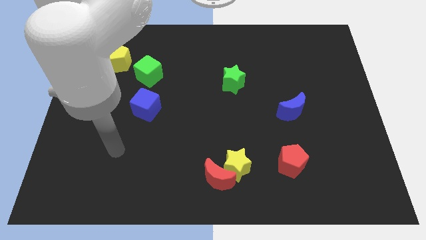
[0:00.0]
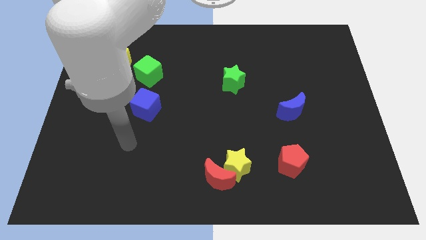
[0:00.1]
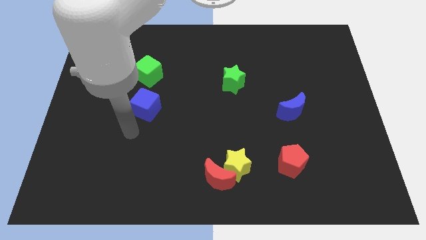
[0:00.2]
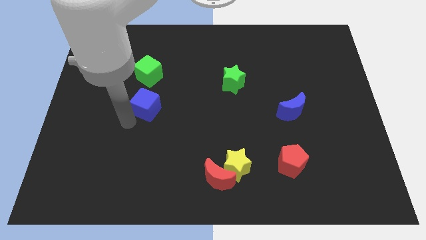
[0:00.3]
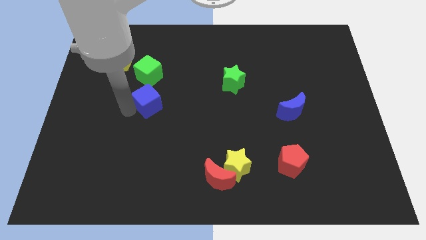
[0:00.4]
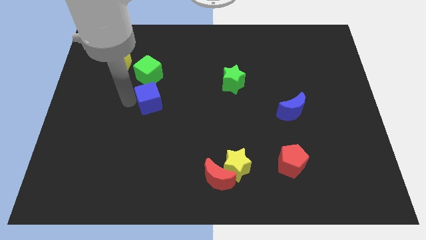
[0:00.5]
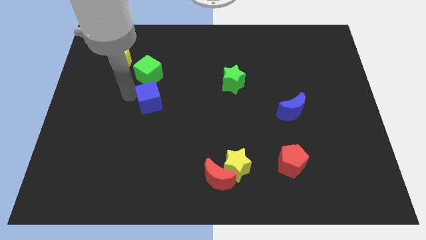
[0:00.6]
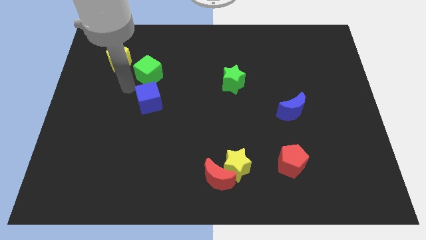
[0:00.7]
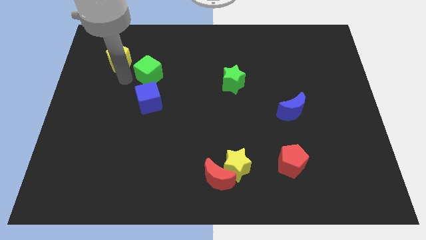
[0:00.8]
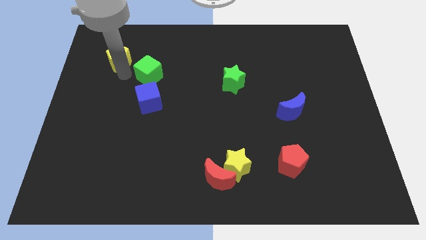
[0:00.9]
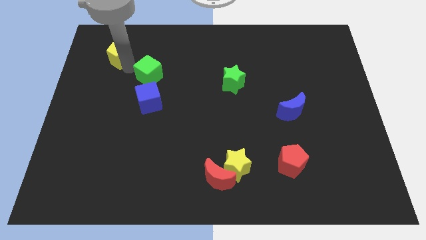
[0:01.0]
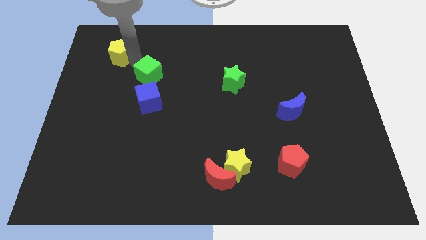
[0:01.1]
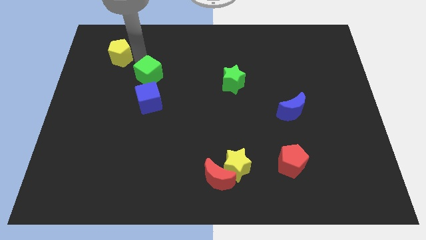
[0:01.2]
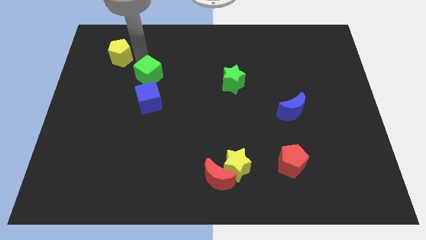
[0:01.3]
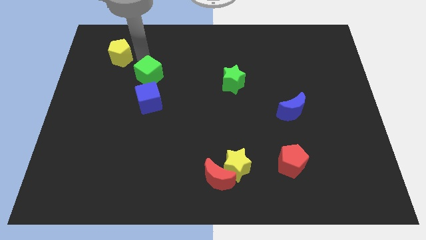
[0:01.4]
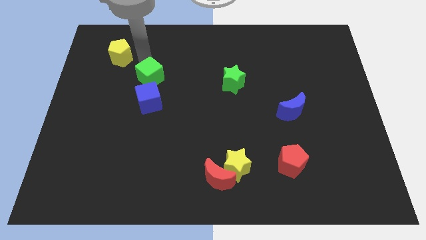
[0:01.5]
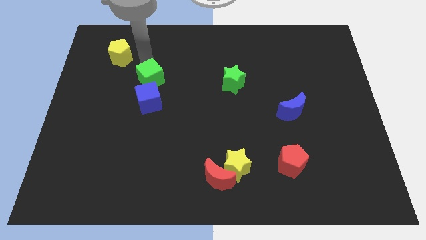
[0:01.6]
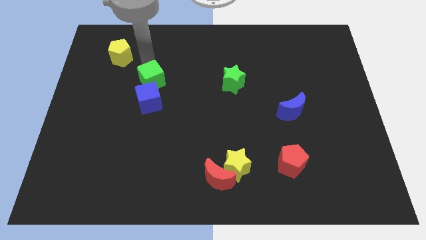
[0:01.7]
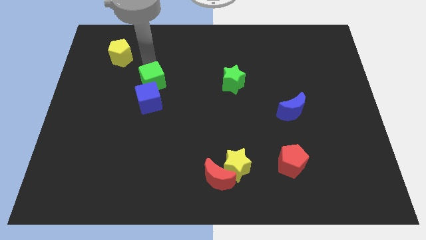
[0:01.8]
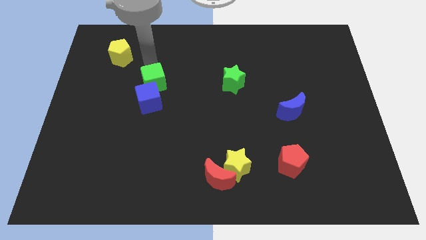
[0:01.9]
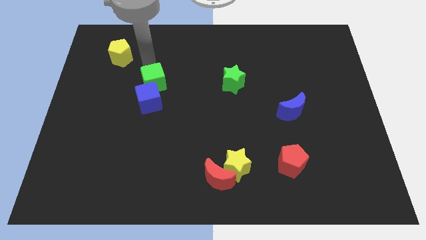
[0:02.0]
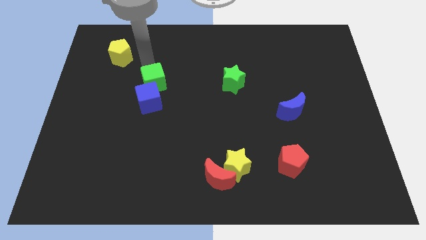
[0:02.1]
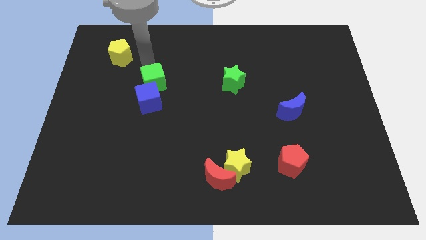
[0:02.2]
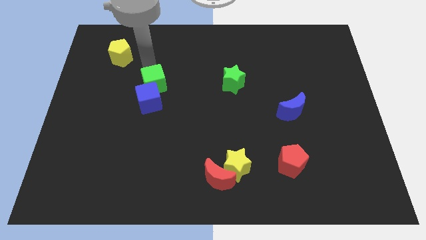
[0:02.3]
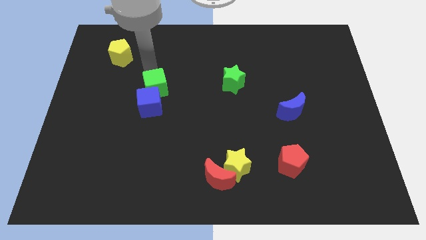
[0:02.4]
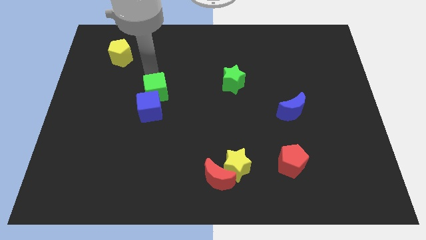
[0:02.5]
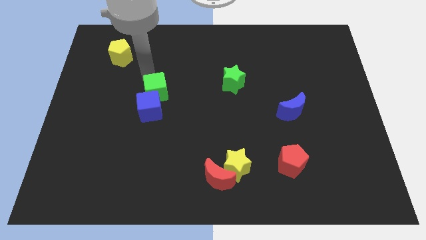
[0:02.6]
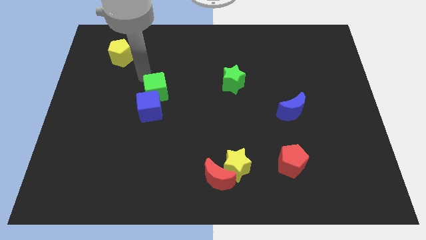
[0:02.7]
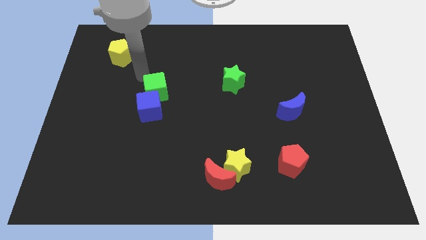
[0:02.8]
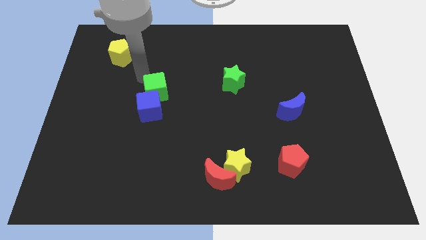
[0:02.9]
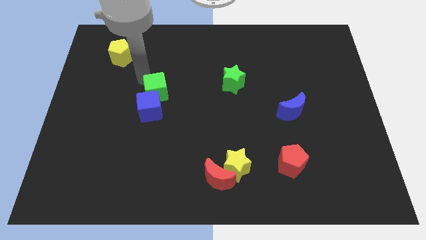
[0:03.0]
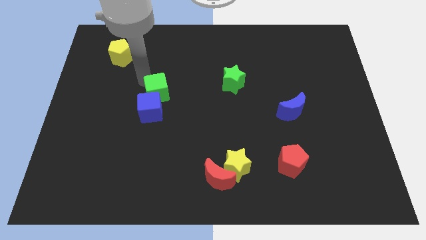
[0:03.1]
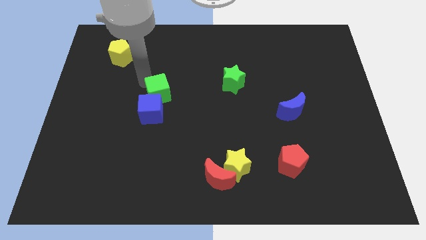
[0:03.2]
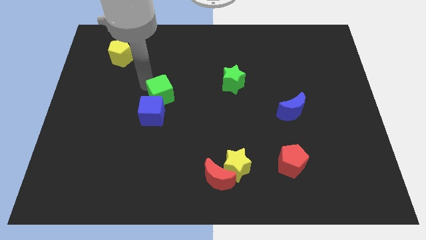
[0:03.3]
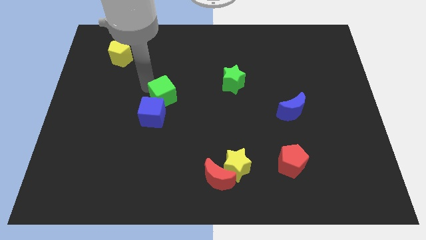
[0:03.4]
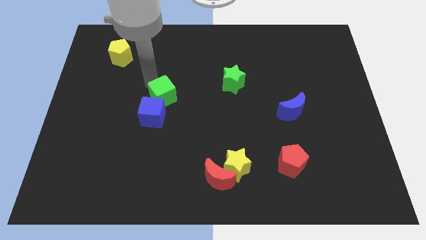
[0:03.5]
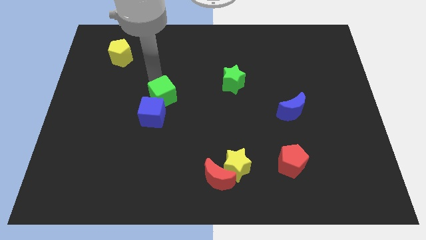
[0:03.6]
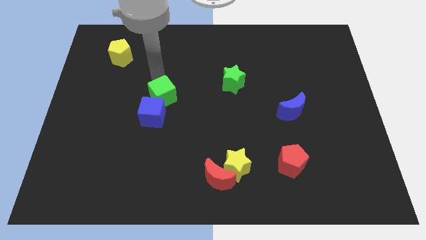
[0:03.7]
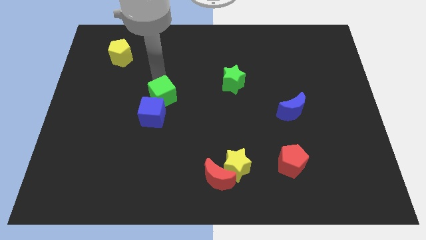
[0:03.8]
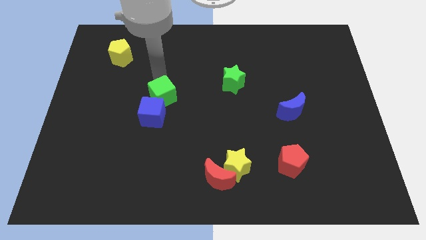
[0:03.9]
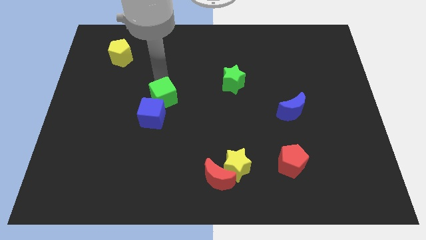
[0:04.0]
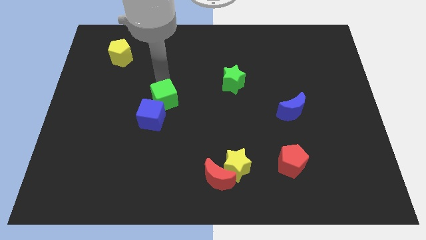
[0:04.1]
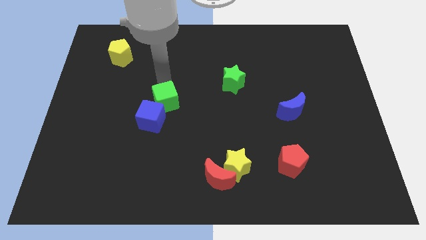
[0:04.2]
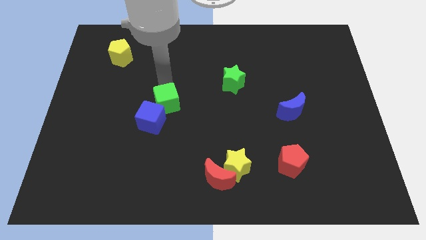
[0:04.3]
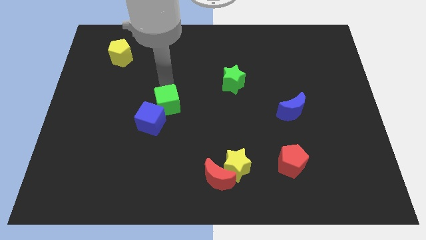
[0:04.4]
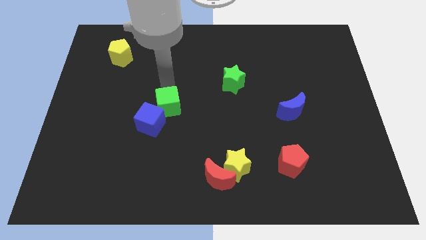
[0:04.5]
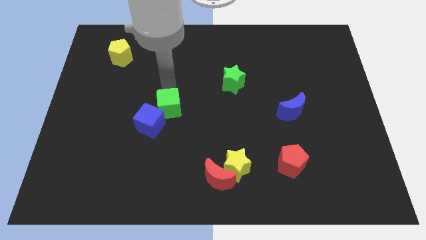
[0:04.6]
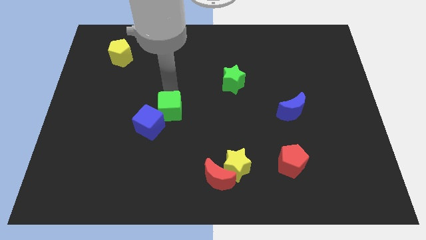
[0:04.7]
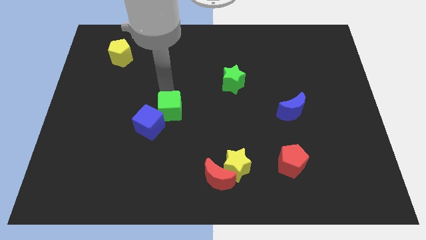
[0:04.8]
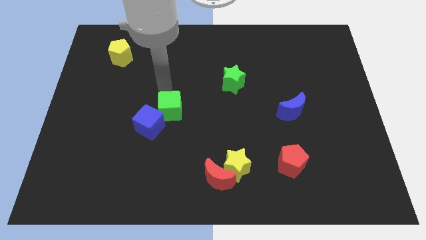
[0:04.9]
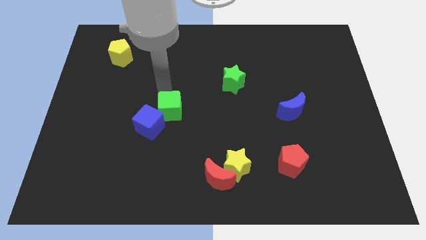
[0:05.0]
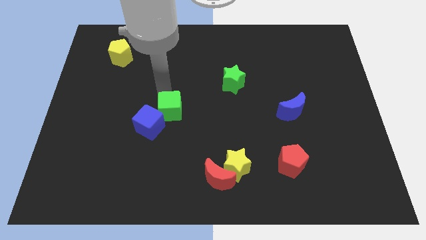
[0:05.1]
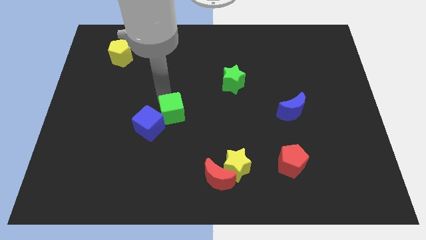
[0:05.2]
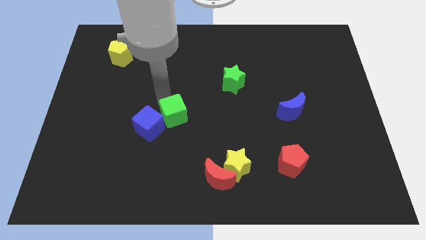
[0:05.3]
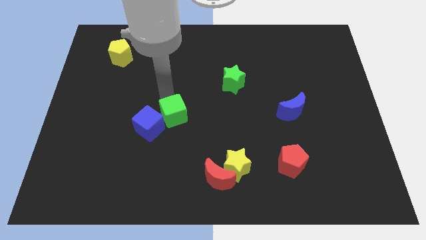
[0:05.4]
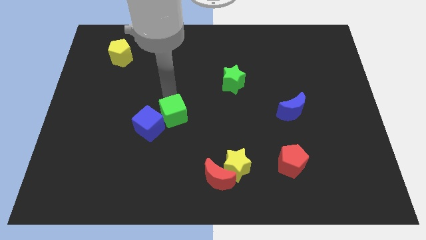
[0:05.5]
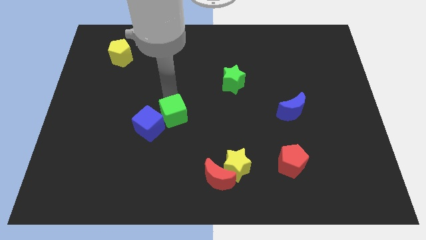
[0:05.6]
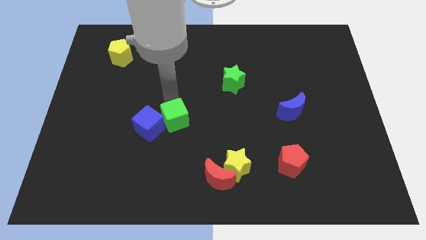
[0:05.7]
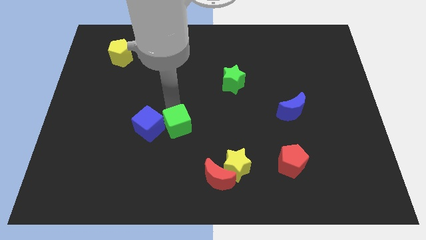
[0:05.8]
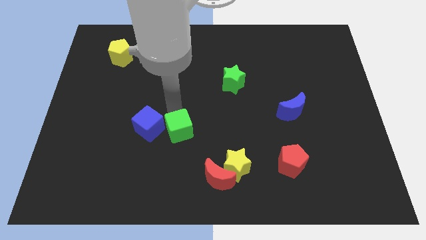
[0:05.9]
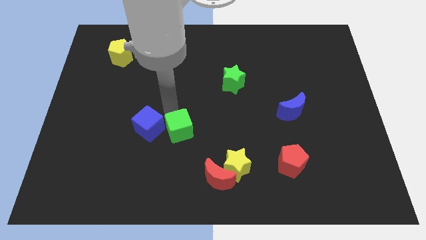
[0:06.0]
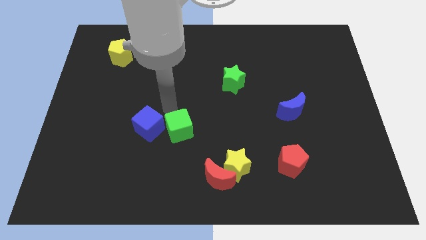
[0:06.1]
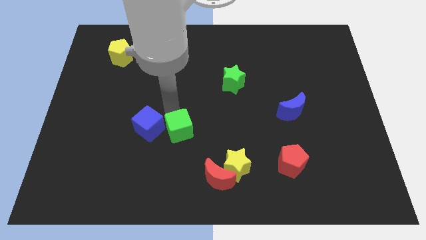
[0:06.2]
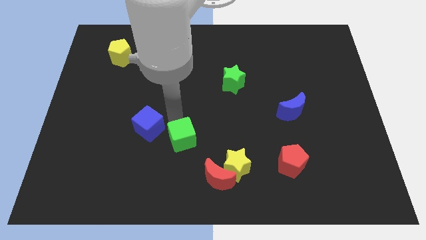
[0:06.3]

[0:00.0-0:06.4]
put the green cube to the top left side of the red moon
